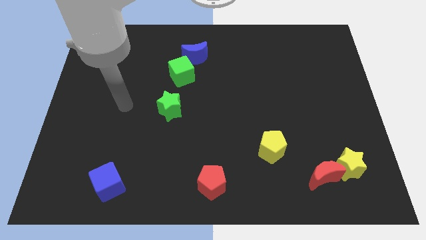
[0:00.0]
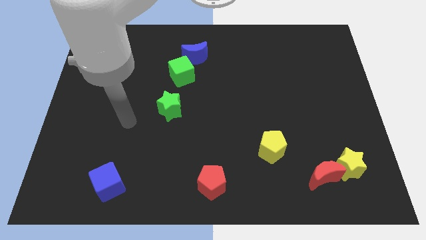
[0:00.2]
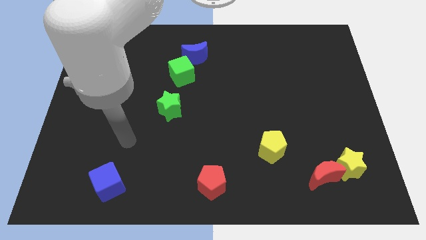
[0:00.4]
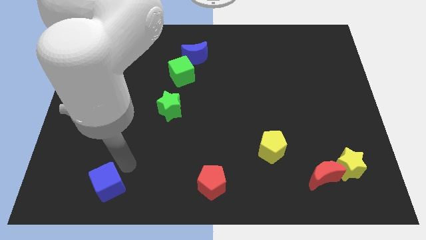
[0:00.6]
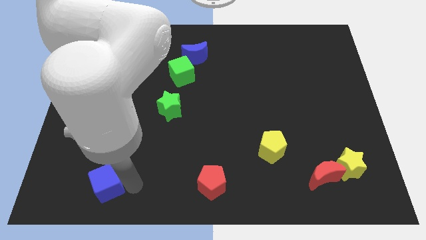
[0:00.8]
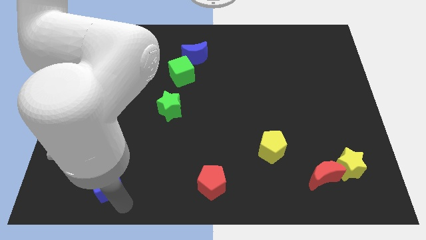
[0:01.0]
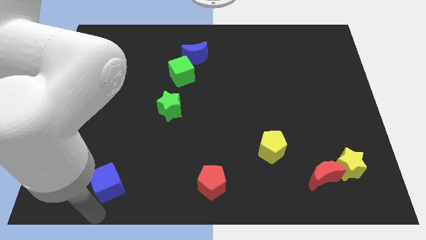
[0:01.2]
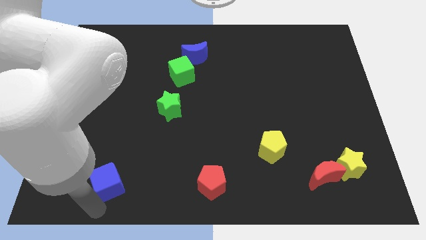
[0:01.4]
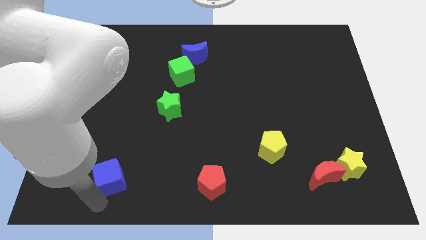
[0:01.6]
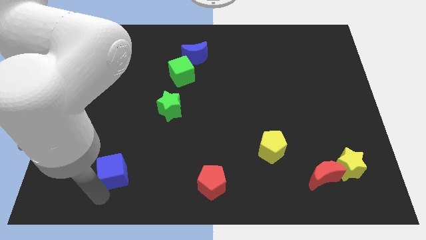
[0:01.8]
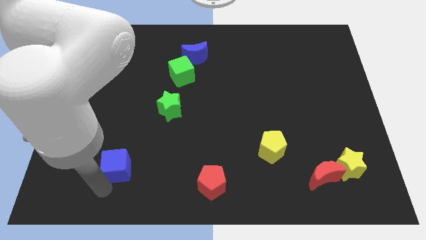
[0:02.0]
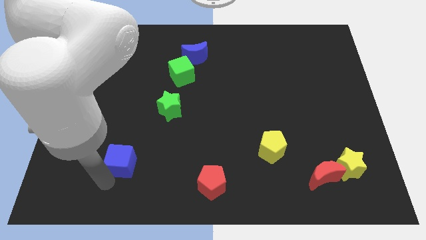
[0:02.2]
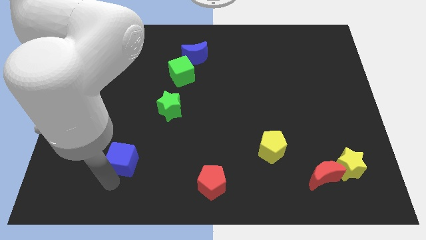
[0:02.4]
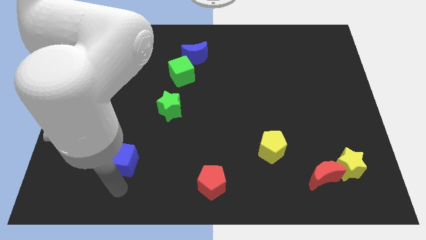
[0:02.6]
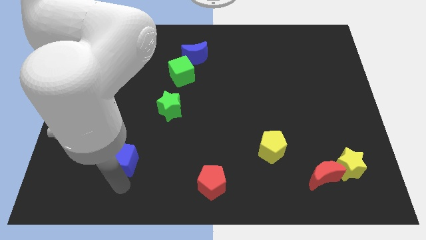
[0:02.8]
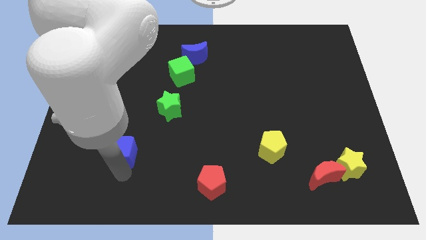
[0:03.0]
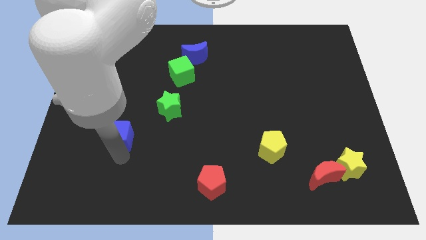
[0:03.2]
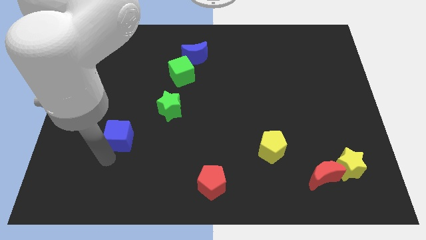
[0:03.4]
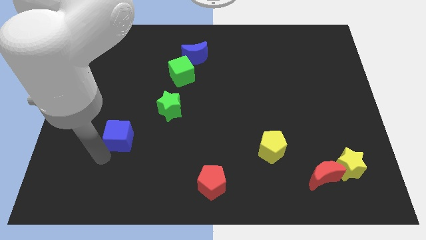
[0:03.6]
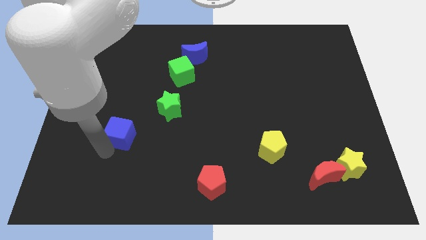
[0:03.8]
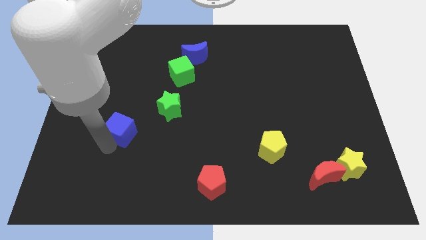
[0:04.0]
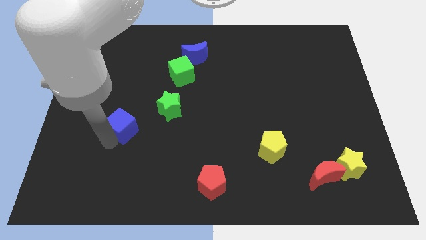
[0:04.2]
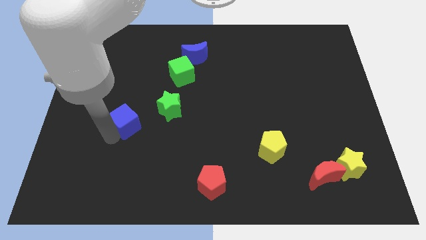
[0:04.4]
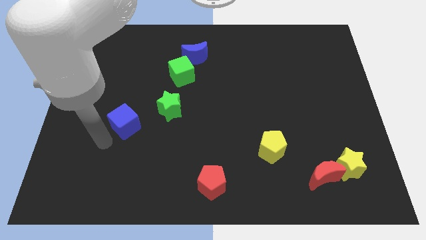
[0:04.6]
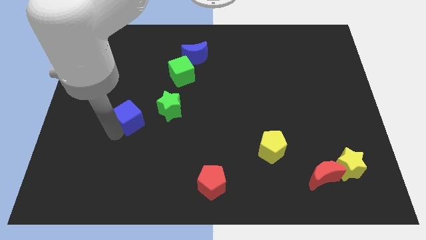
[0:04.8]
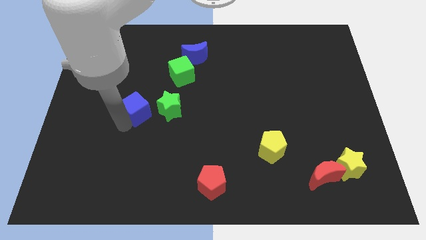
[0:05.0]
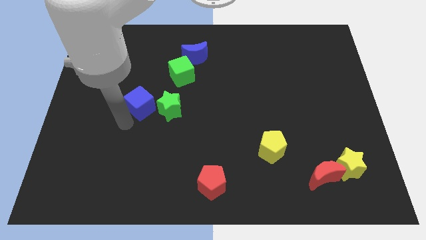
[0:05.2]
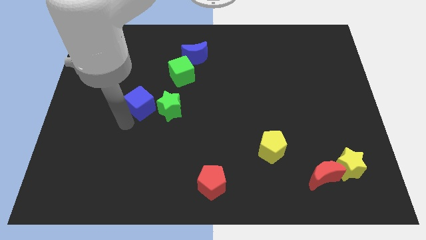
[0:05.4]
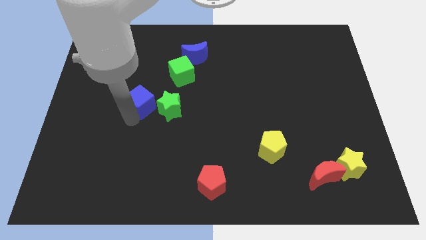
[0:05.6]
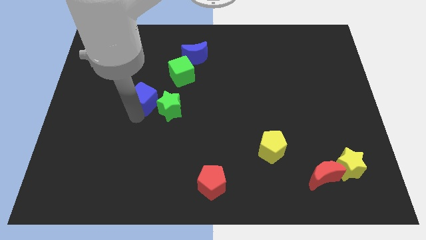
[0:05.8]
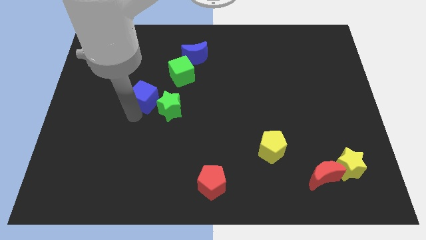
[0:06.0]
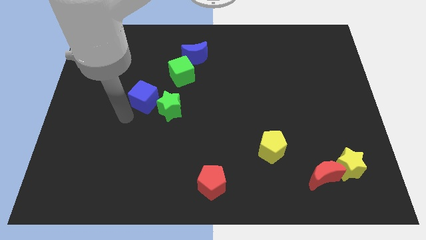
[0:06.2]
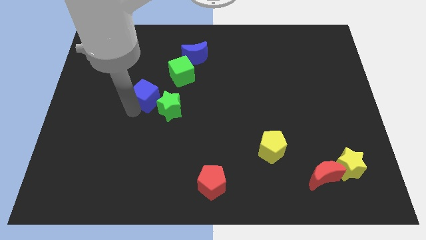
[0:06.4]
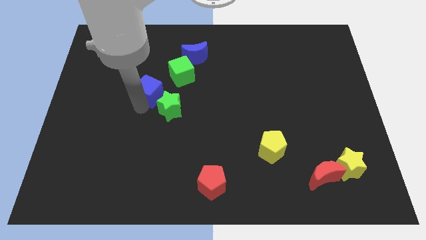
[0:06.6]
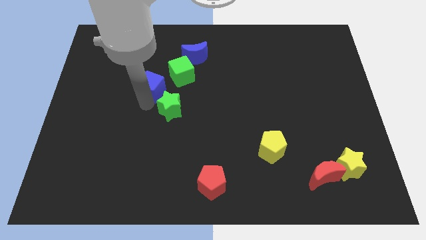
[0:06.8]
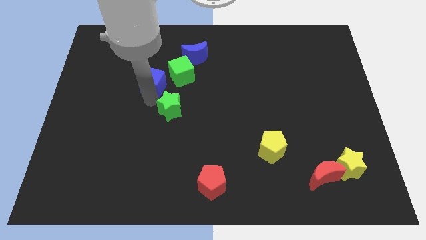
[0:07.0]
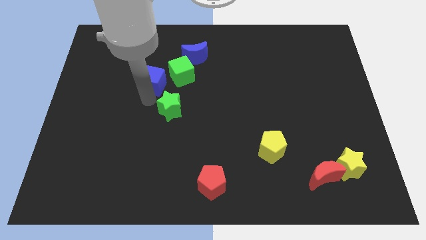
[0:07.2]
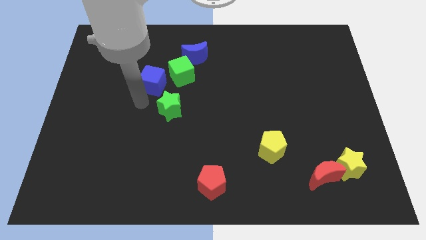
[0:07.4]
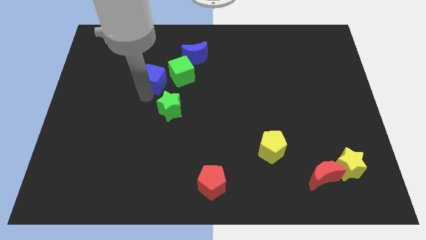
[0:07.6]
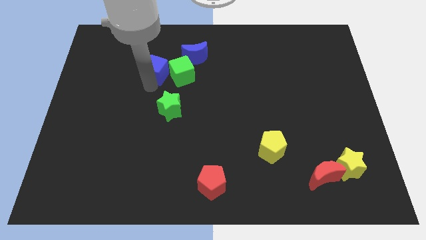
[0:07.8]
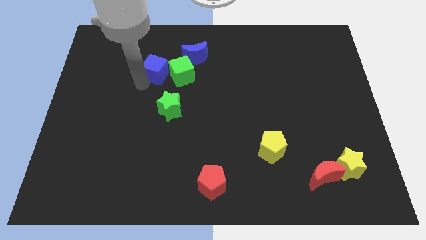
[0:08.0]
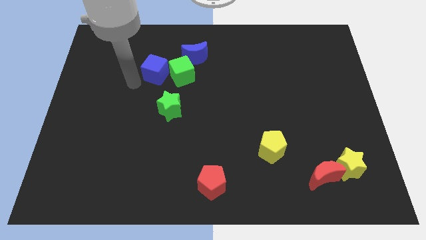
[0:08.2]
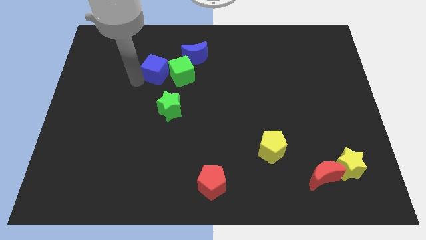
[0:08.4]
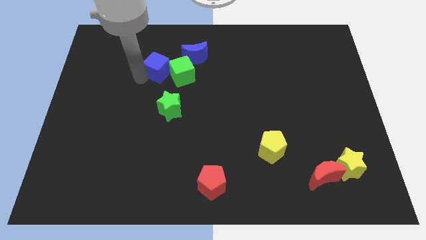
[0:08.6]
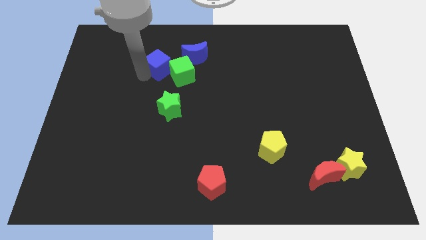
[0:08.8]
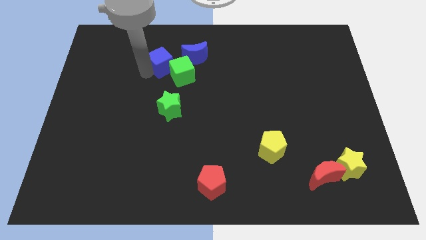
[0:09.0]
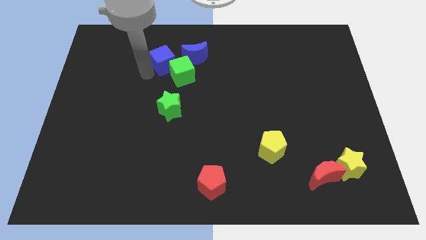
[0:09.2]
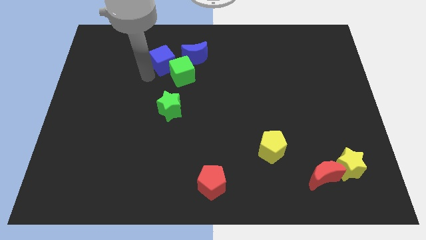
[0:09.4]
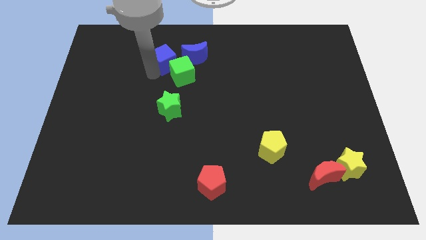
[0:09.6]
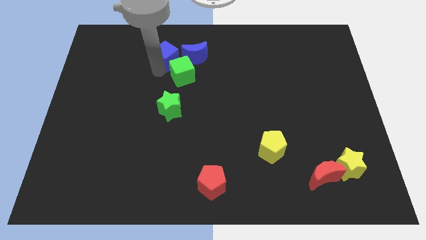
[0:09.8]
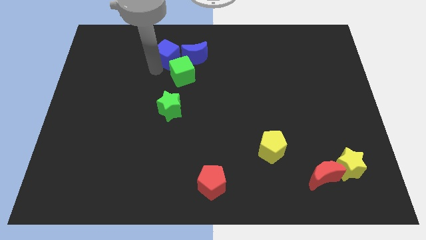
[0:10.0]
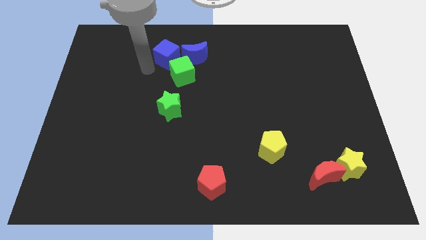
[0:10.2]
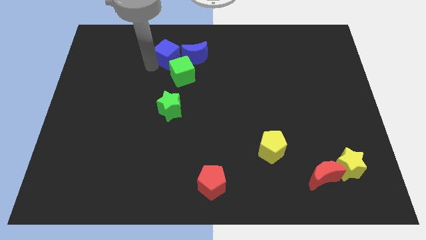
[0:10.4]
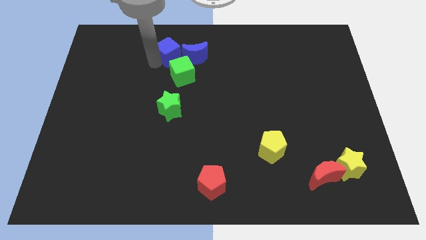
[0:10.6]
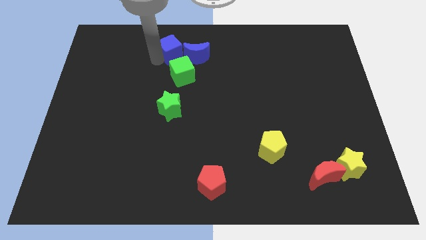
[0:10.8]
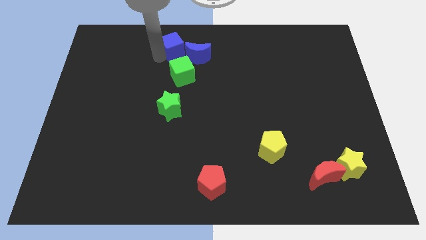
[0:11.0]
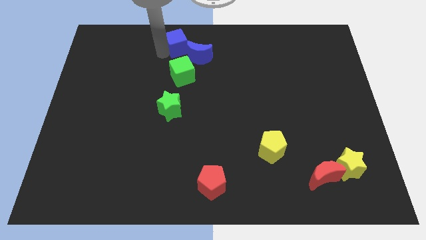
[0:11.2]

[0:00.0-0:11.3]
slide the blue cube to the top
